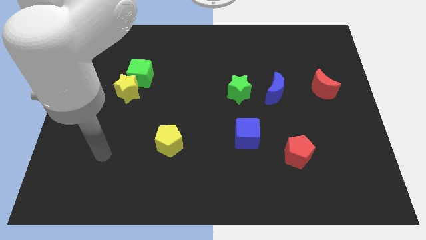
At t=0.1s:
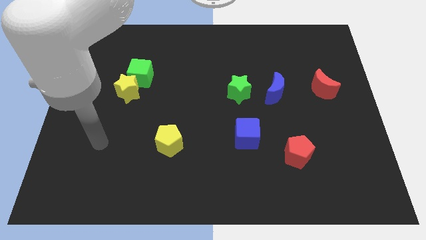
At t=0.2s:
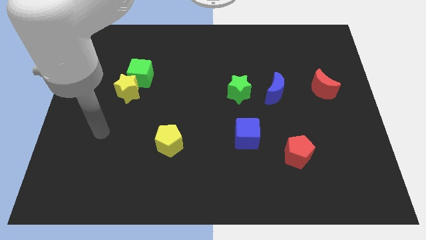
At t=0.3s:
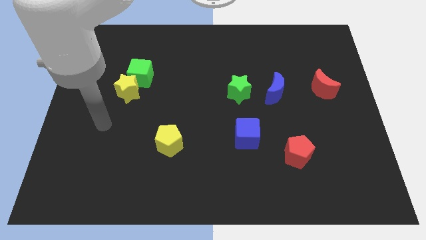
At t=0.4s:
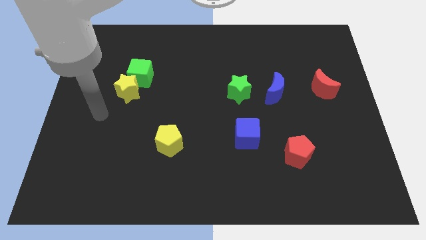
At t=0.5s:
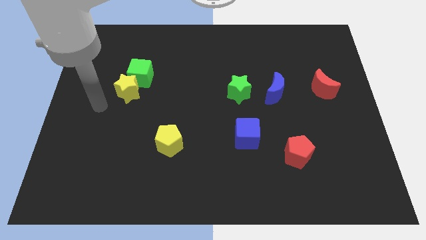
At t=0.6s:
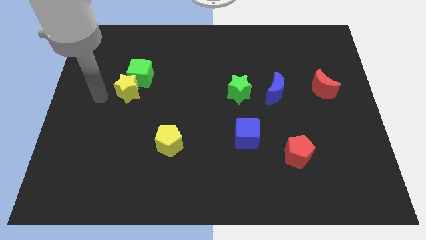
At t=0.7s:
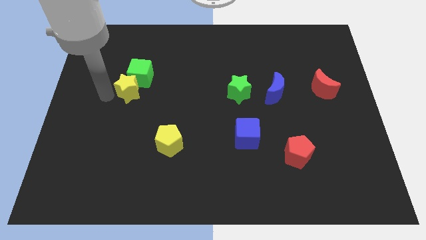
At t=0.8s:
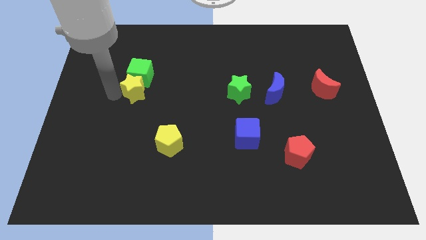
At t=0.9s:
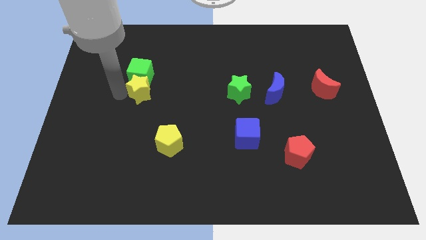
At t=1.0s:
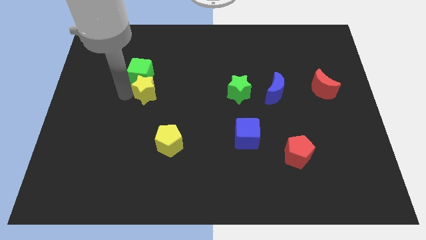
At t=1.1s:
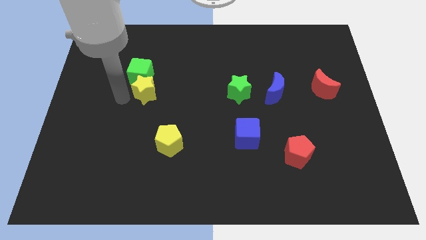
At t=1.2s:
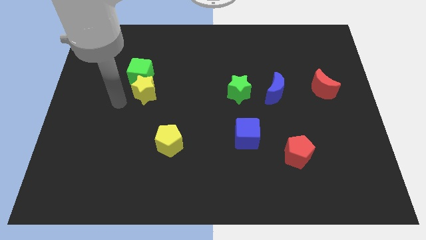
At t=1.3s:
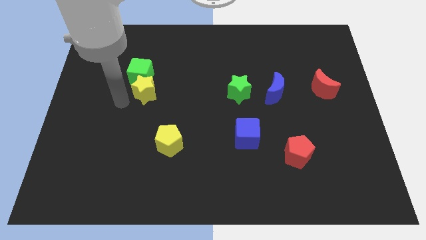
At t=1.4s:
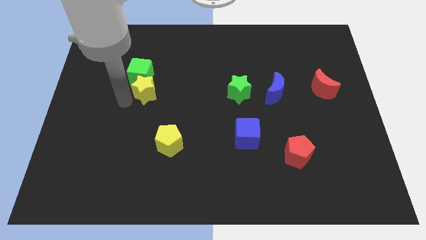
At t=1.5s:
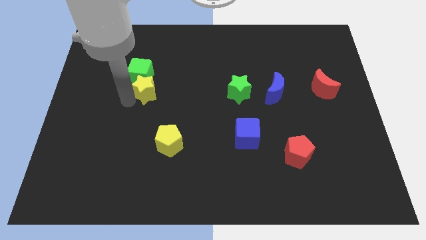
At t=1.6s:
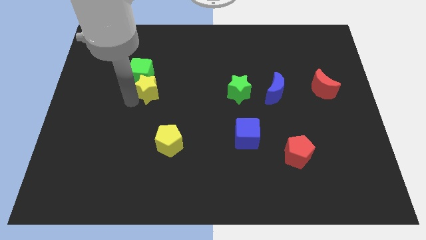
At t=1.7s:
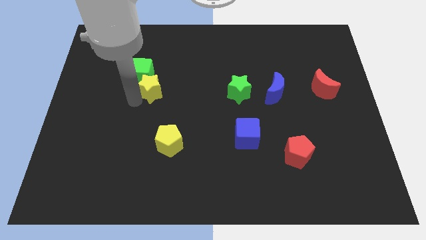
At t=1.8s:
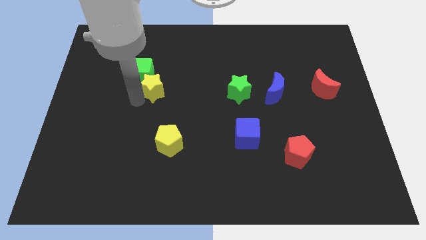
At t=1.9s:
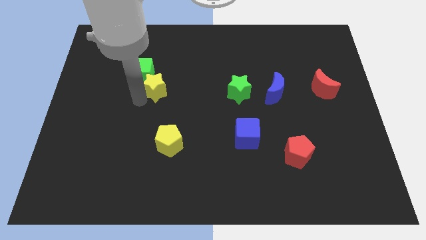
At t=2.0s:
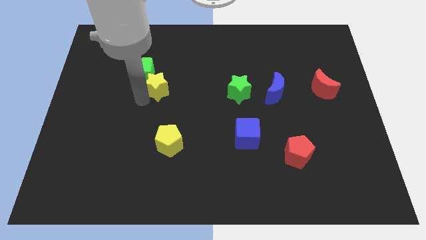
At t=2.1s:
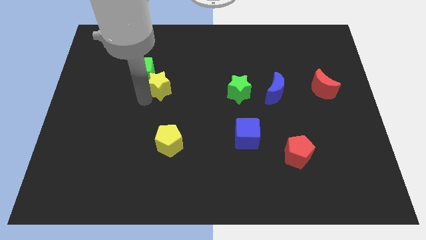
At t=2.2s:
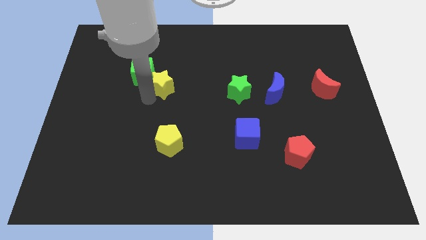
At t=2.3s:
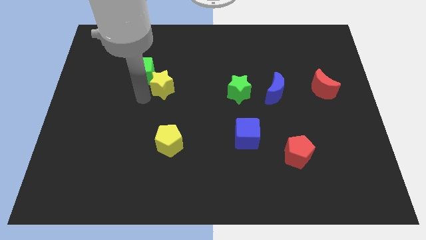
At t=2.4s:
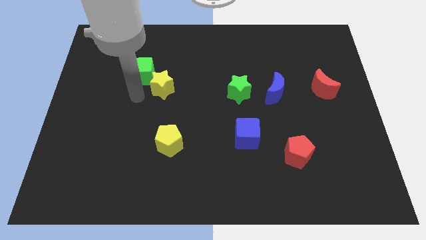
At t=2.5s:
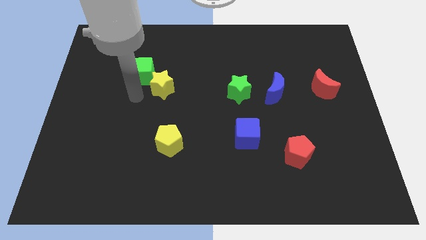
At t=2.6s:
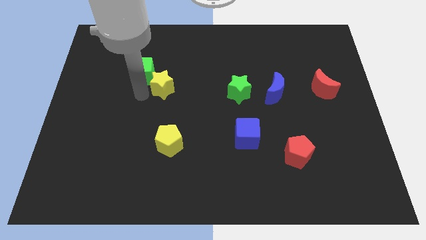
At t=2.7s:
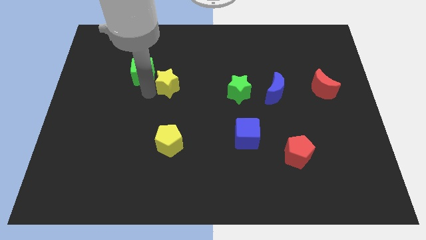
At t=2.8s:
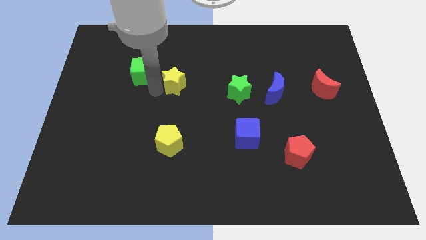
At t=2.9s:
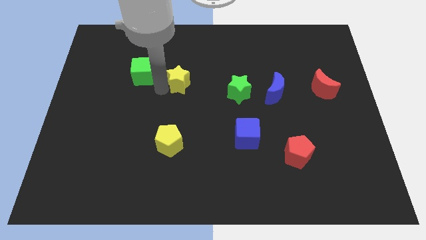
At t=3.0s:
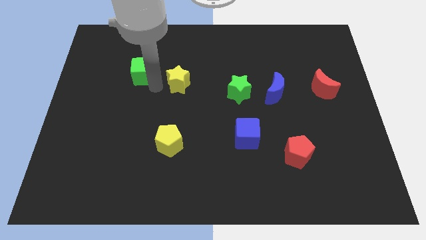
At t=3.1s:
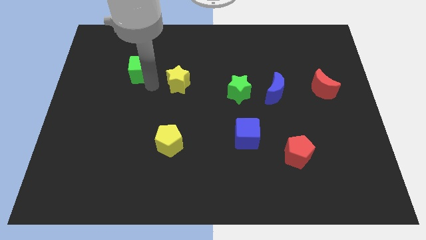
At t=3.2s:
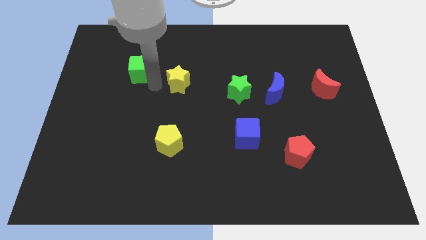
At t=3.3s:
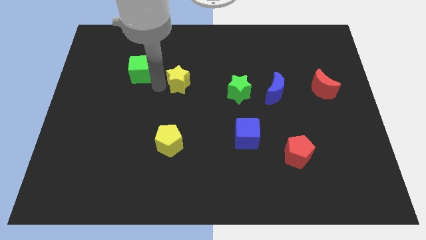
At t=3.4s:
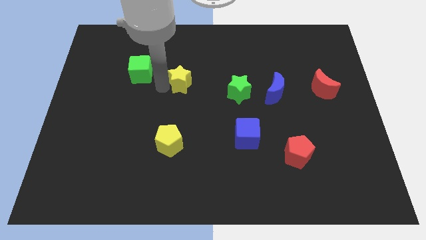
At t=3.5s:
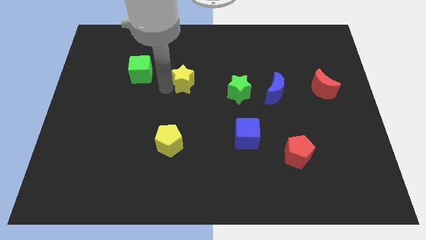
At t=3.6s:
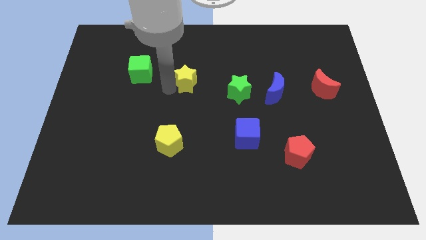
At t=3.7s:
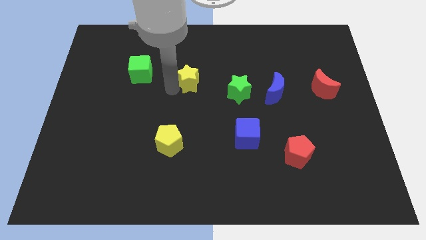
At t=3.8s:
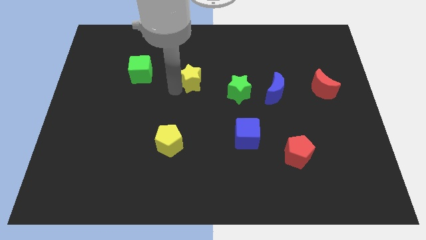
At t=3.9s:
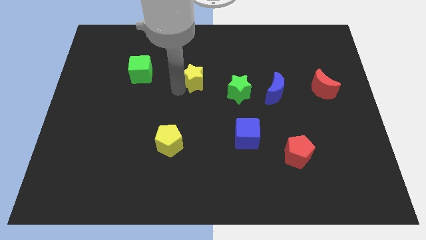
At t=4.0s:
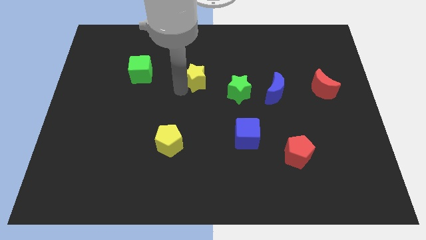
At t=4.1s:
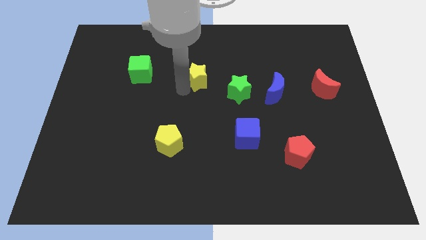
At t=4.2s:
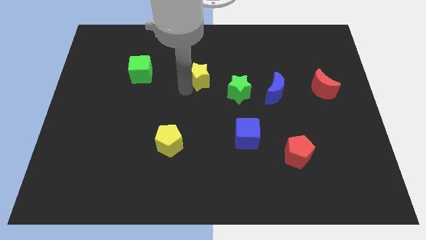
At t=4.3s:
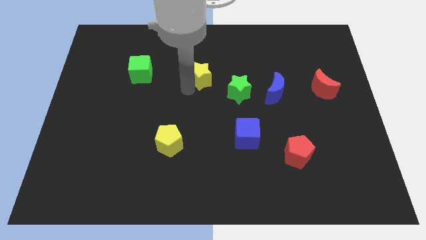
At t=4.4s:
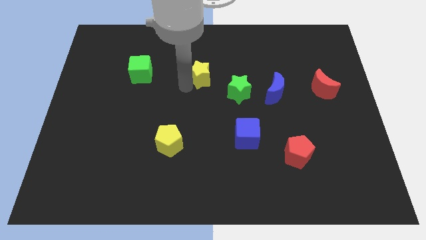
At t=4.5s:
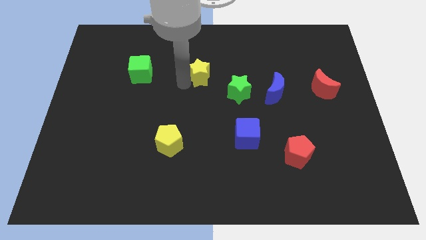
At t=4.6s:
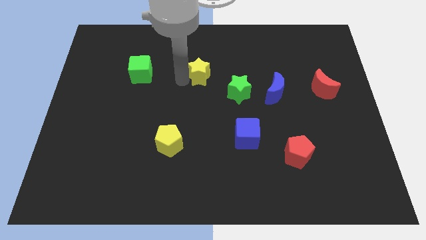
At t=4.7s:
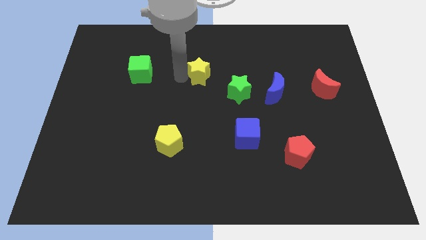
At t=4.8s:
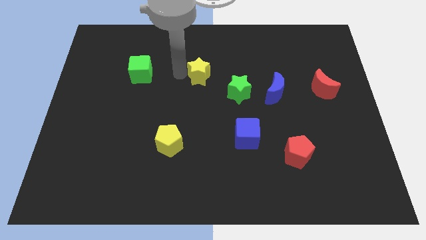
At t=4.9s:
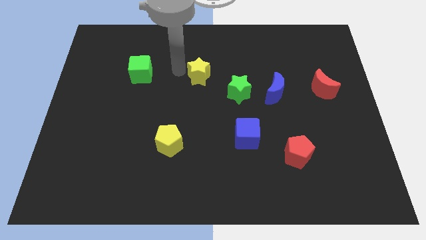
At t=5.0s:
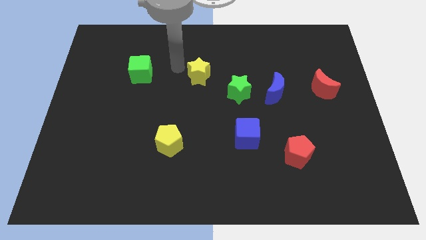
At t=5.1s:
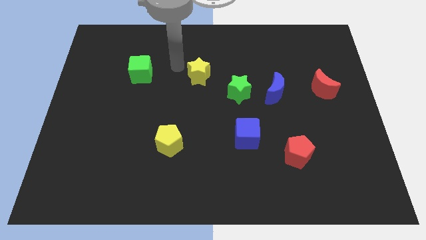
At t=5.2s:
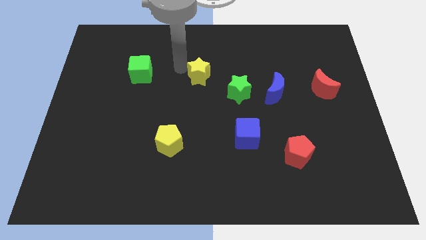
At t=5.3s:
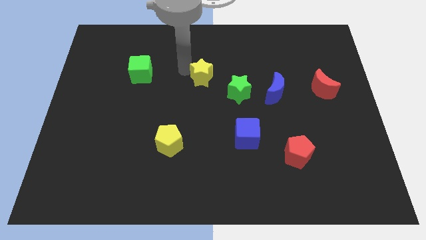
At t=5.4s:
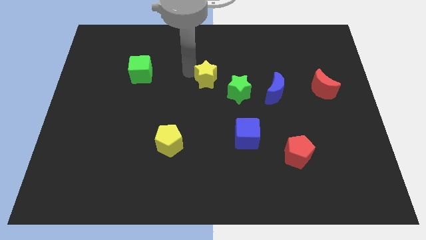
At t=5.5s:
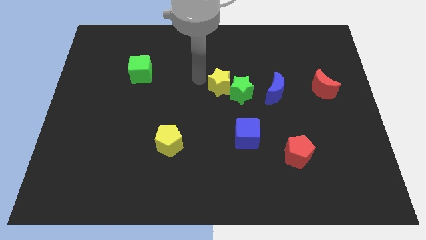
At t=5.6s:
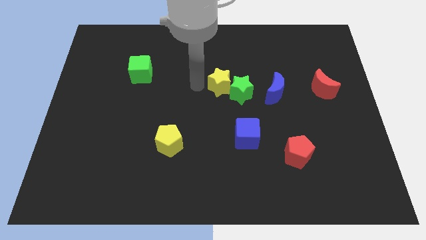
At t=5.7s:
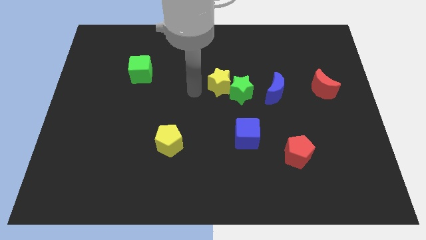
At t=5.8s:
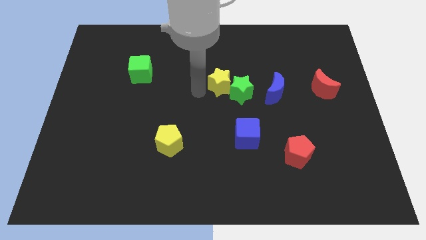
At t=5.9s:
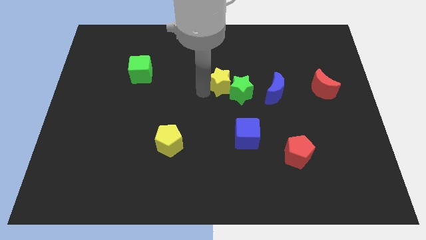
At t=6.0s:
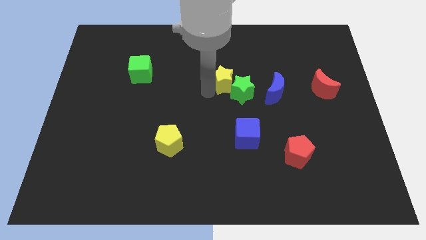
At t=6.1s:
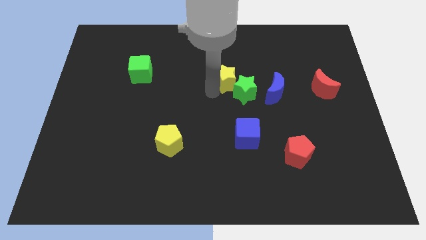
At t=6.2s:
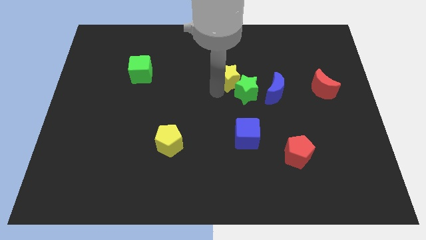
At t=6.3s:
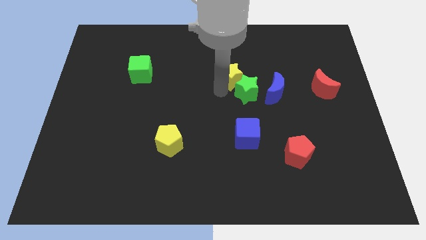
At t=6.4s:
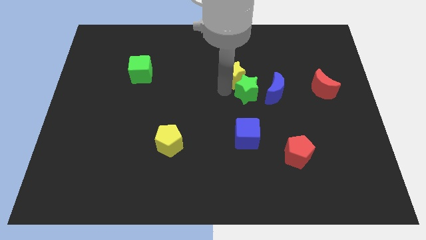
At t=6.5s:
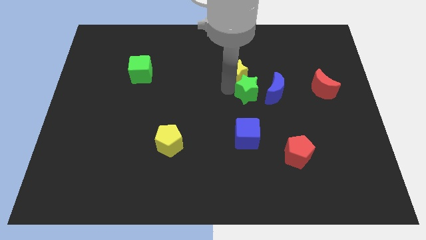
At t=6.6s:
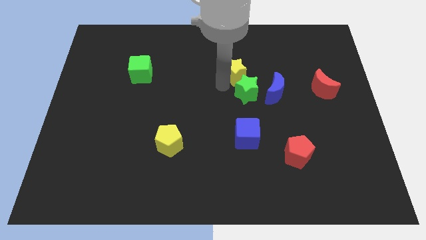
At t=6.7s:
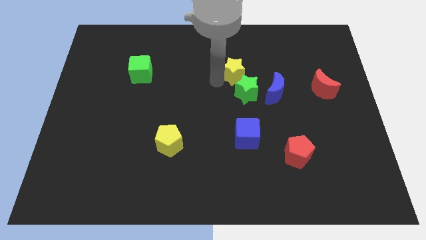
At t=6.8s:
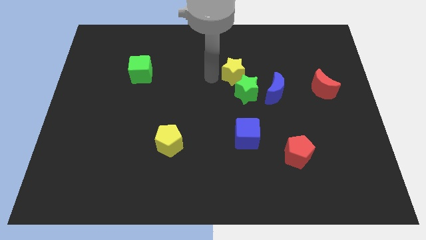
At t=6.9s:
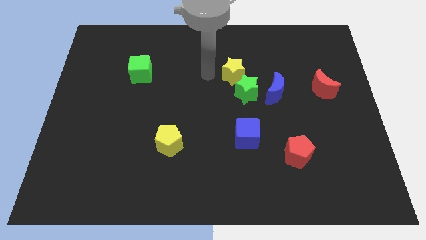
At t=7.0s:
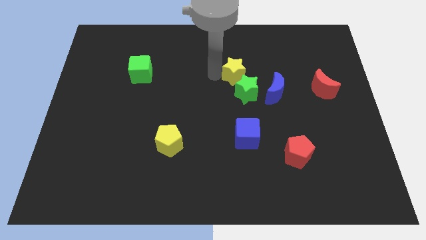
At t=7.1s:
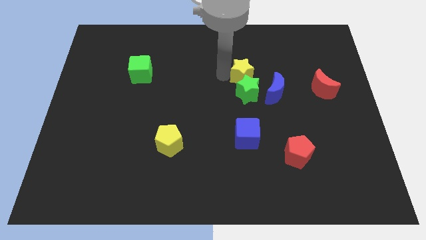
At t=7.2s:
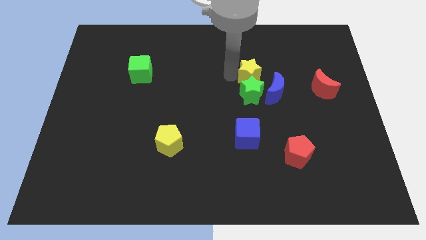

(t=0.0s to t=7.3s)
push the yellow star to the top right side of the green star
